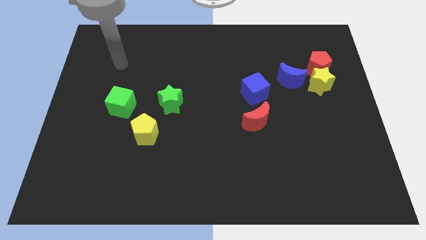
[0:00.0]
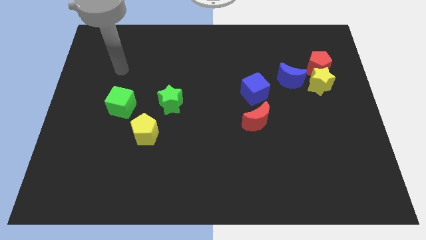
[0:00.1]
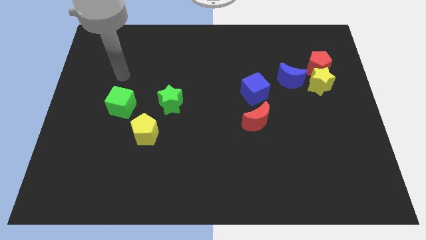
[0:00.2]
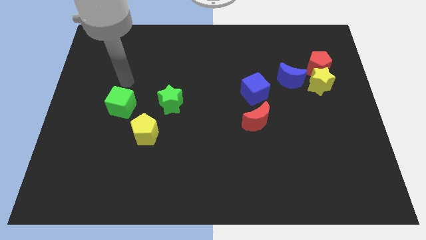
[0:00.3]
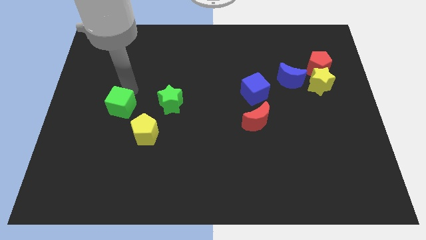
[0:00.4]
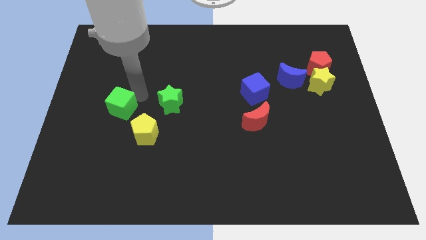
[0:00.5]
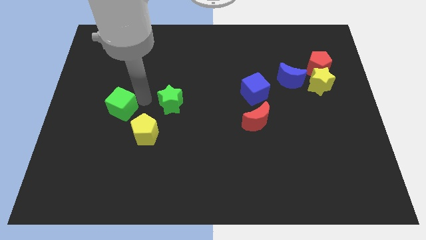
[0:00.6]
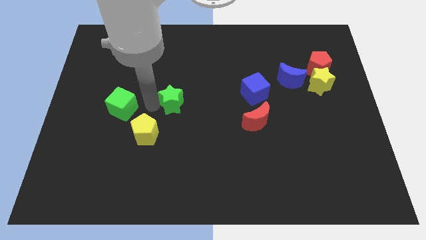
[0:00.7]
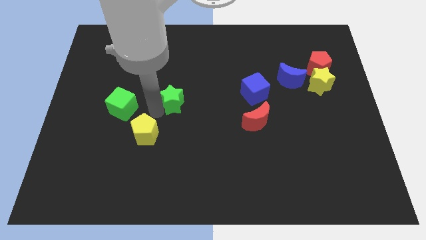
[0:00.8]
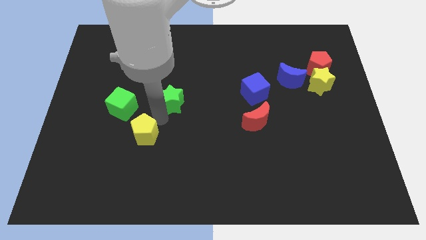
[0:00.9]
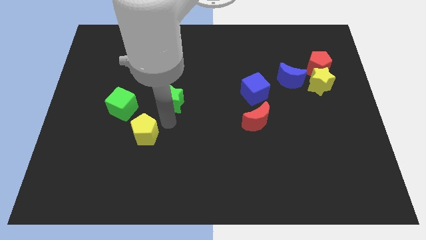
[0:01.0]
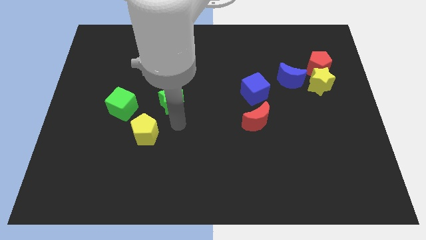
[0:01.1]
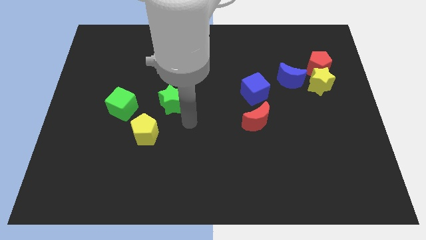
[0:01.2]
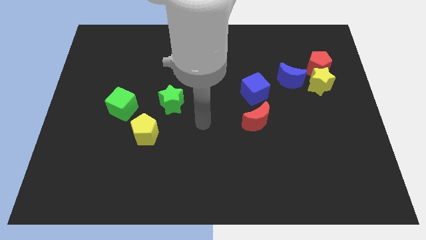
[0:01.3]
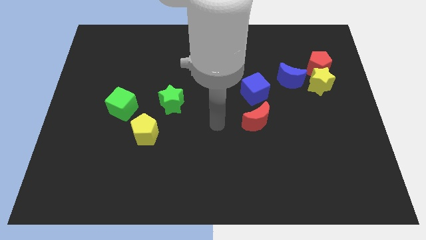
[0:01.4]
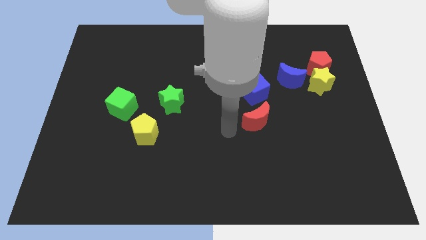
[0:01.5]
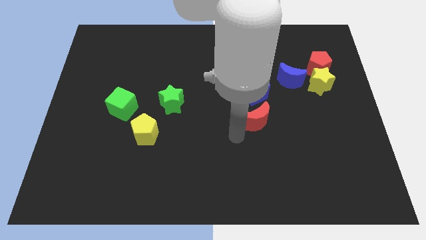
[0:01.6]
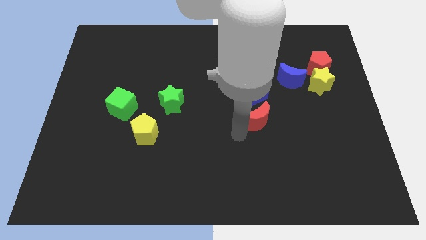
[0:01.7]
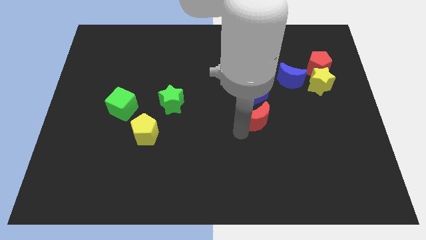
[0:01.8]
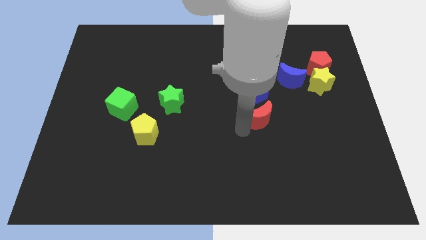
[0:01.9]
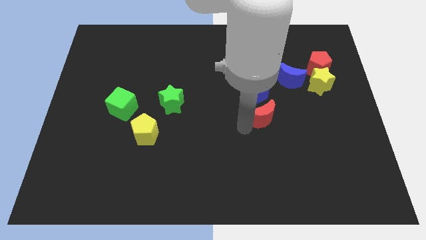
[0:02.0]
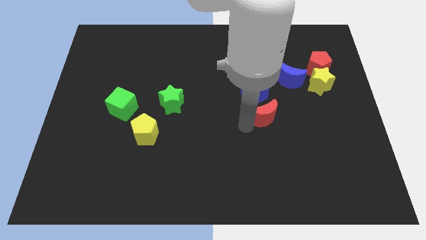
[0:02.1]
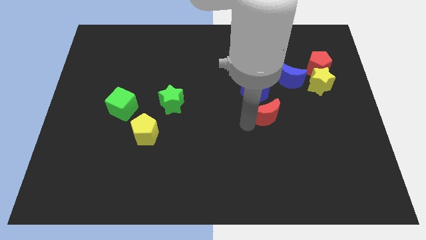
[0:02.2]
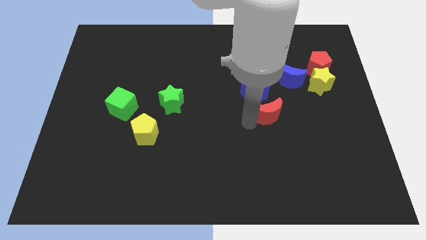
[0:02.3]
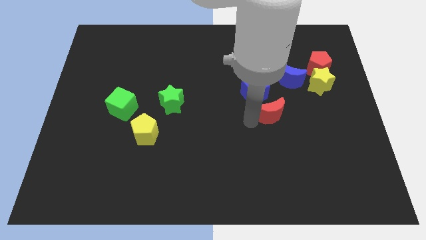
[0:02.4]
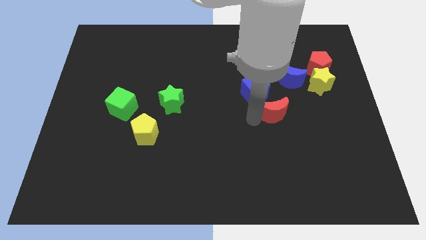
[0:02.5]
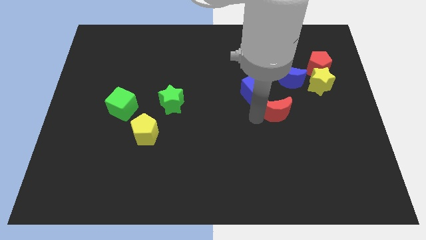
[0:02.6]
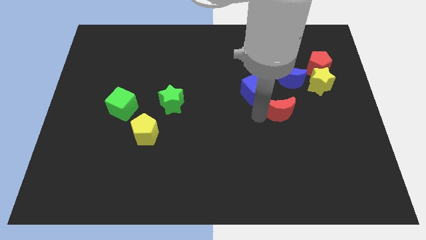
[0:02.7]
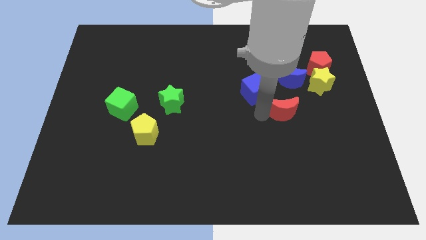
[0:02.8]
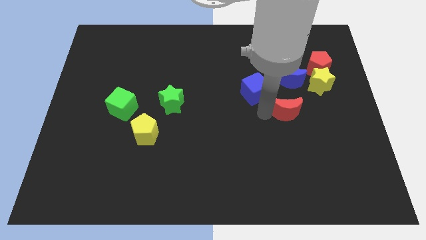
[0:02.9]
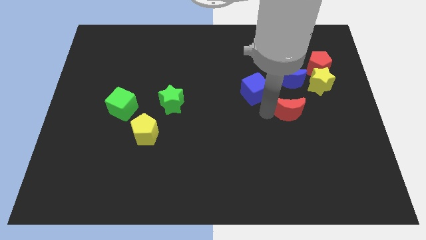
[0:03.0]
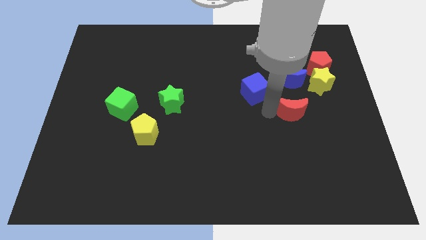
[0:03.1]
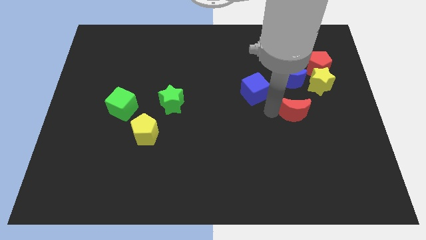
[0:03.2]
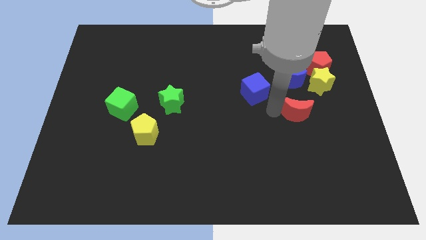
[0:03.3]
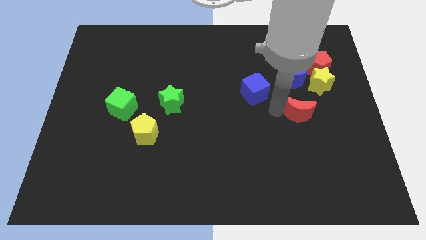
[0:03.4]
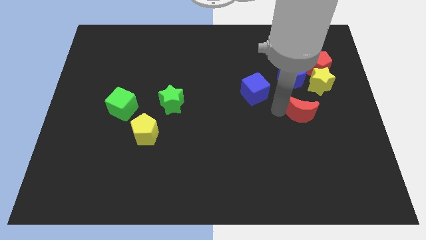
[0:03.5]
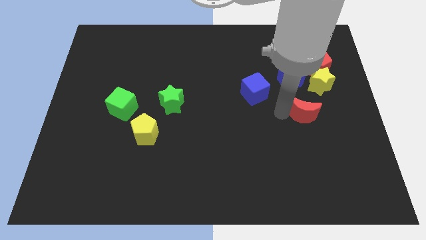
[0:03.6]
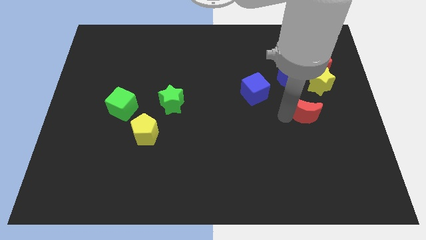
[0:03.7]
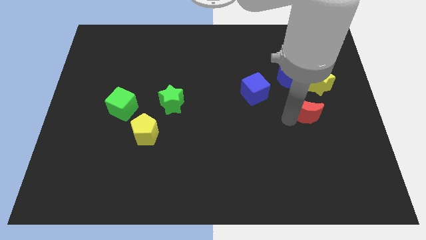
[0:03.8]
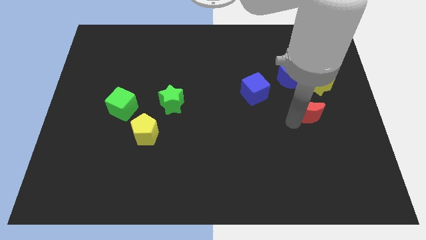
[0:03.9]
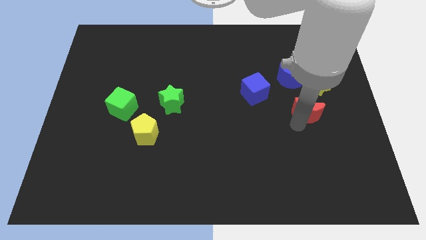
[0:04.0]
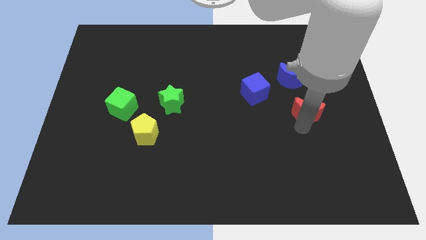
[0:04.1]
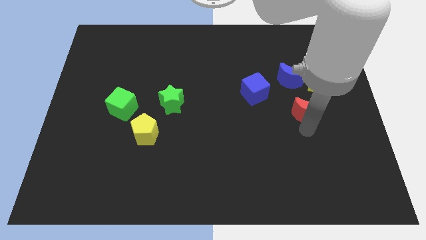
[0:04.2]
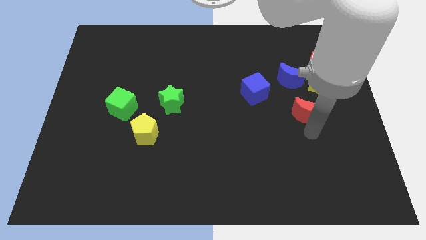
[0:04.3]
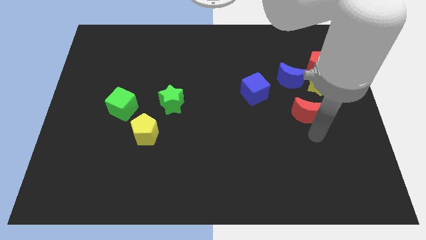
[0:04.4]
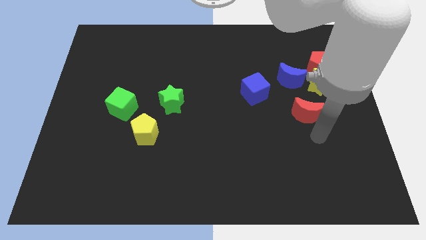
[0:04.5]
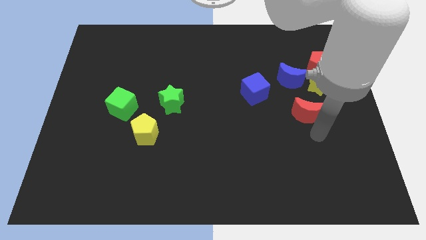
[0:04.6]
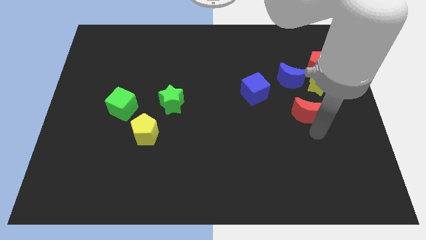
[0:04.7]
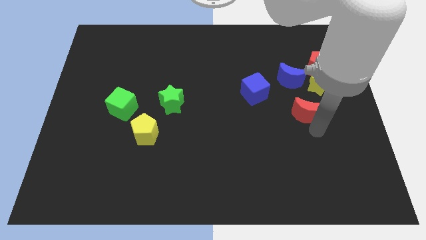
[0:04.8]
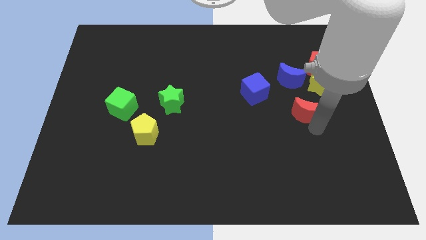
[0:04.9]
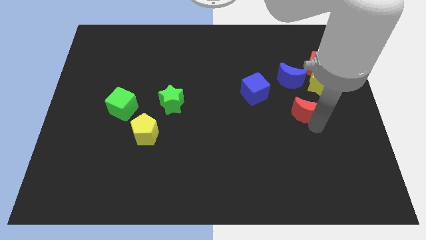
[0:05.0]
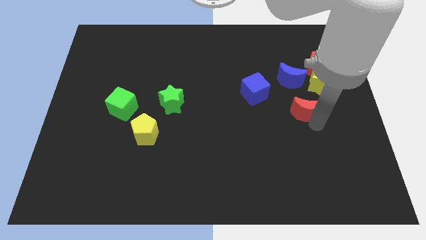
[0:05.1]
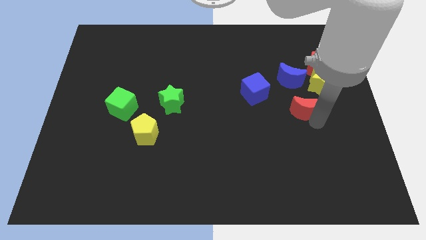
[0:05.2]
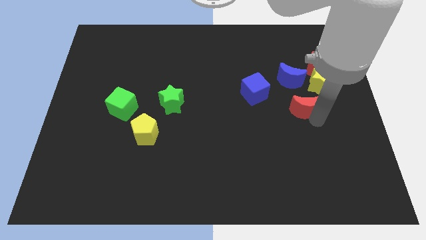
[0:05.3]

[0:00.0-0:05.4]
move the red moon diagonally down and to the right of the blue moon

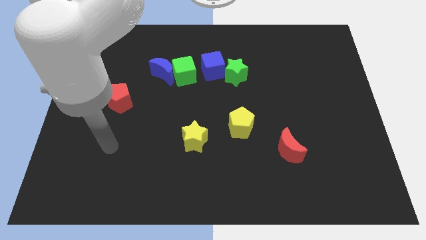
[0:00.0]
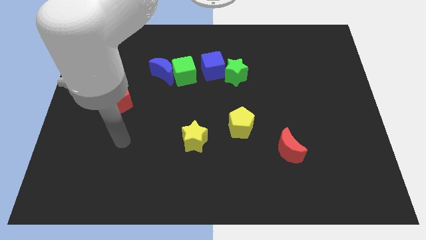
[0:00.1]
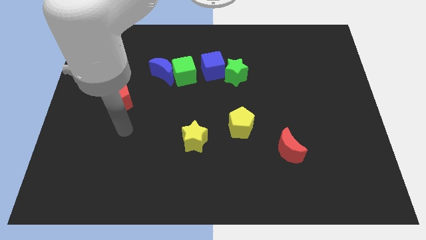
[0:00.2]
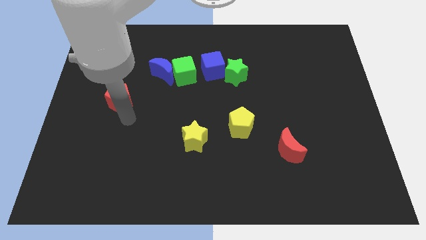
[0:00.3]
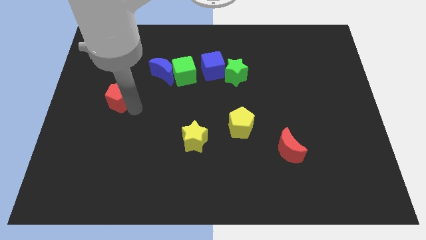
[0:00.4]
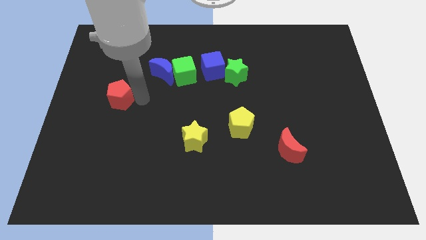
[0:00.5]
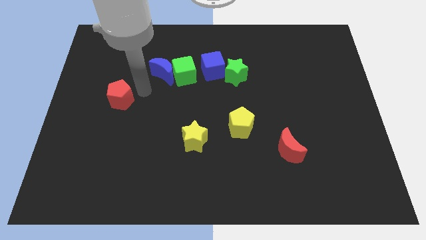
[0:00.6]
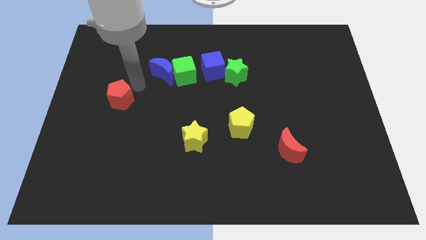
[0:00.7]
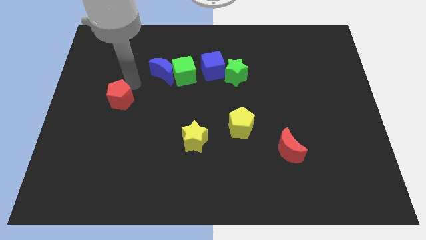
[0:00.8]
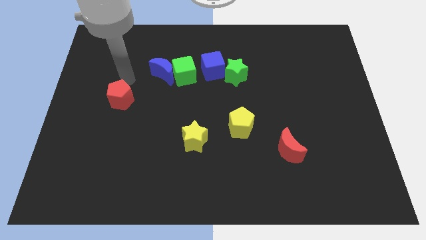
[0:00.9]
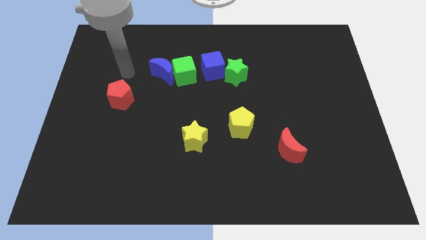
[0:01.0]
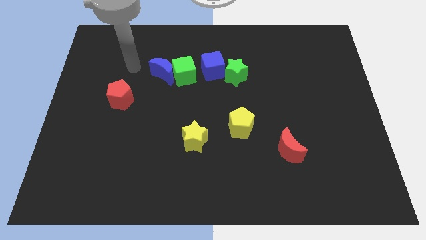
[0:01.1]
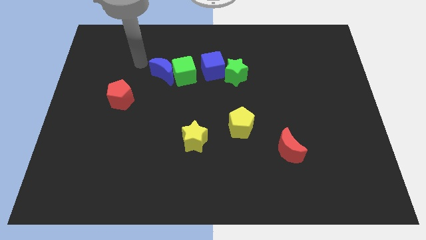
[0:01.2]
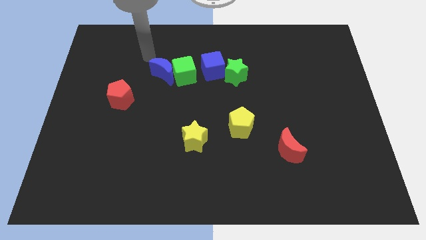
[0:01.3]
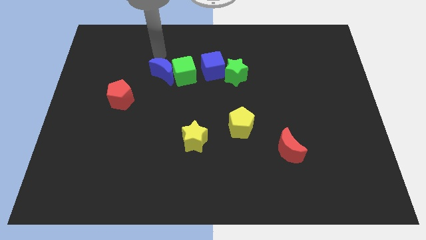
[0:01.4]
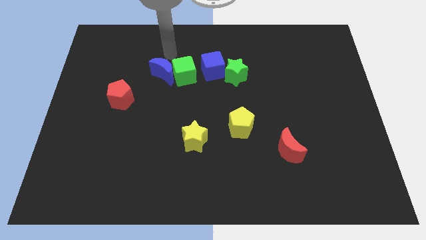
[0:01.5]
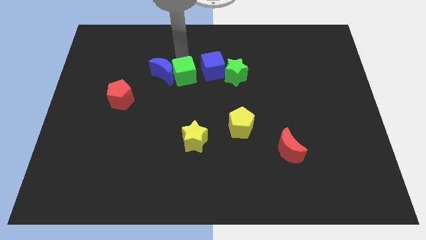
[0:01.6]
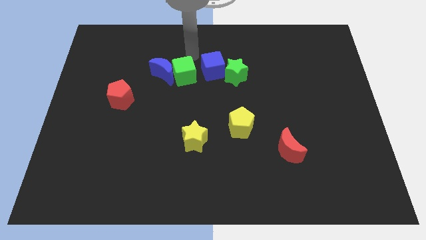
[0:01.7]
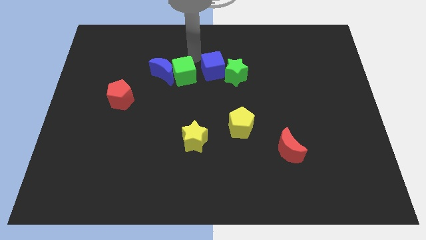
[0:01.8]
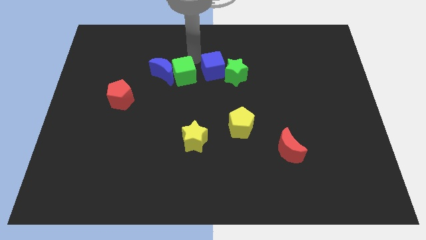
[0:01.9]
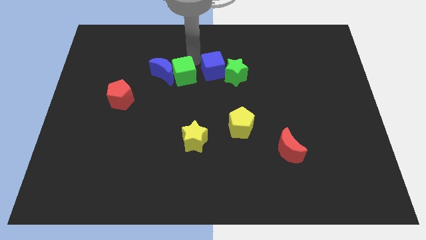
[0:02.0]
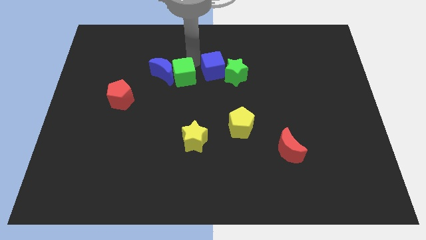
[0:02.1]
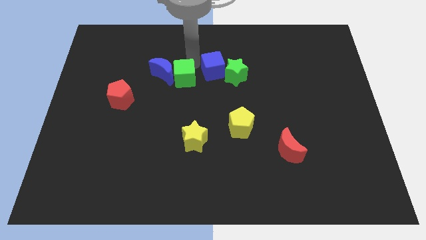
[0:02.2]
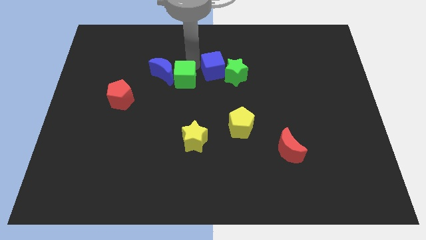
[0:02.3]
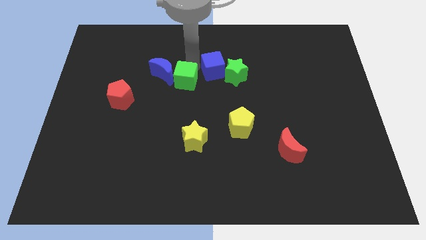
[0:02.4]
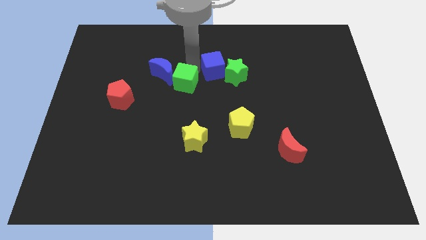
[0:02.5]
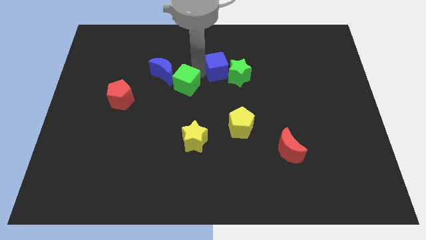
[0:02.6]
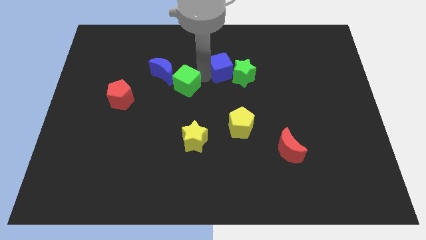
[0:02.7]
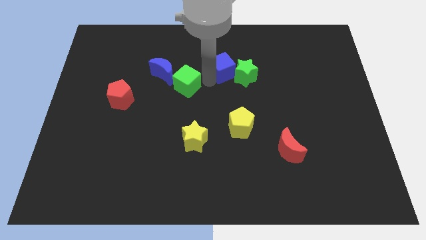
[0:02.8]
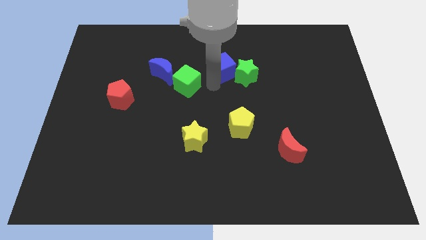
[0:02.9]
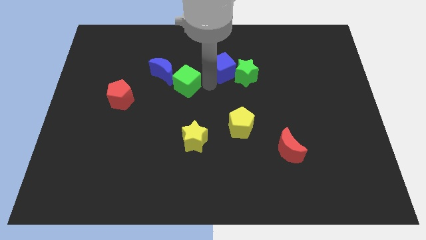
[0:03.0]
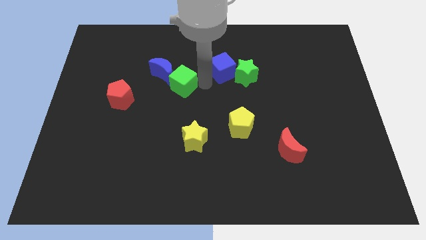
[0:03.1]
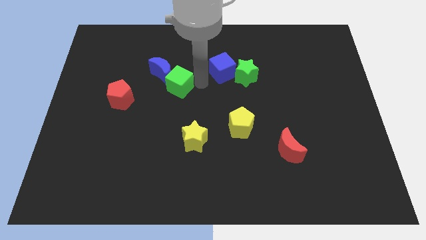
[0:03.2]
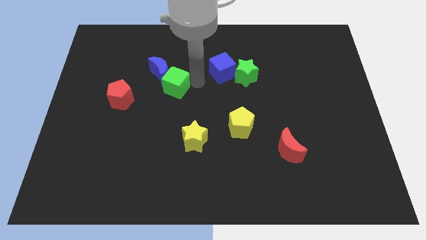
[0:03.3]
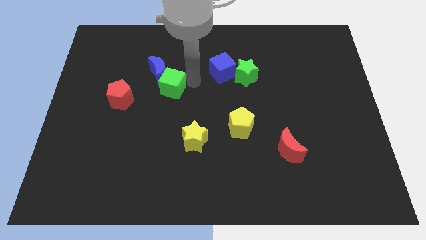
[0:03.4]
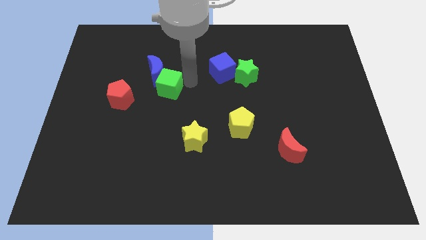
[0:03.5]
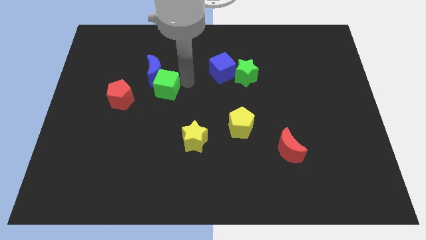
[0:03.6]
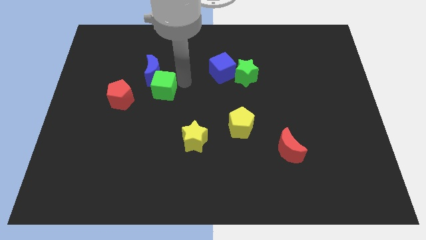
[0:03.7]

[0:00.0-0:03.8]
push the green cube diagonally up and to the right of the red pentagon
